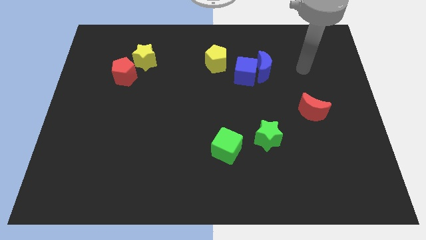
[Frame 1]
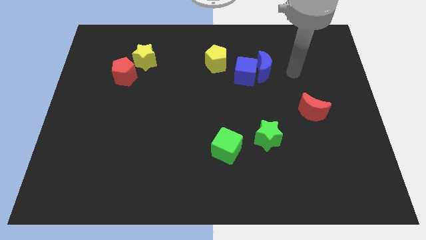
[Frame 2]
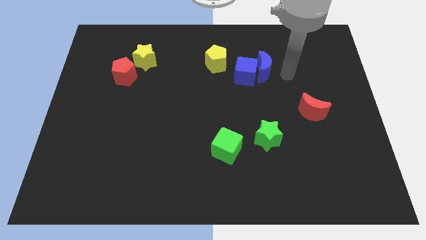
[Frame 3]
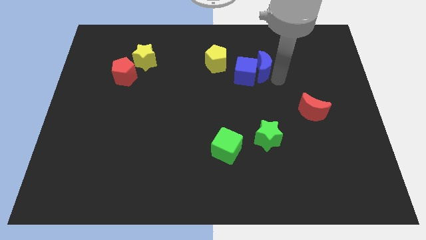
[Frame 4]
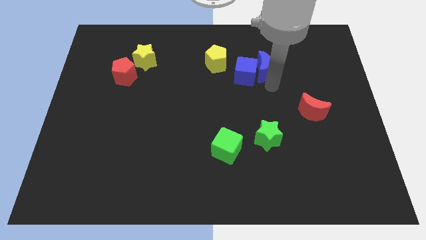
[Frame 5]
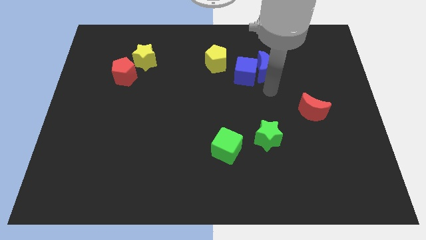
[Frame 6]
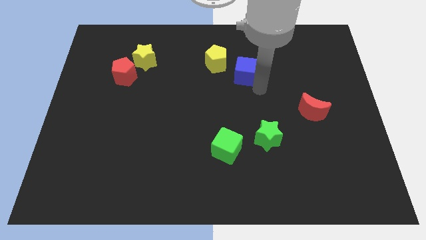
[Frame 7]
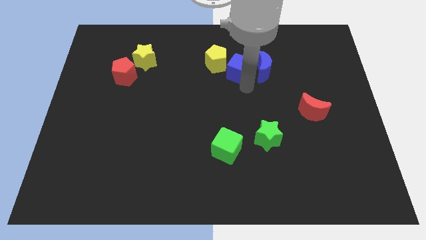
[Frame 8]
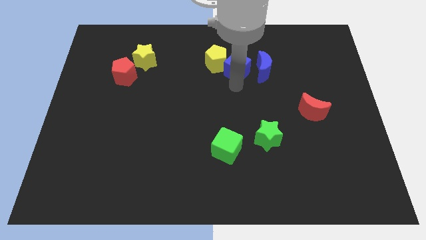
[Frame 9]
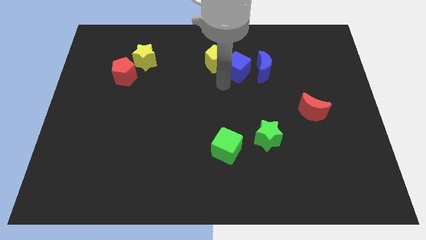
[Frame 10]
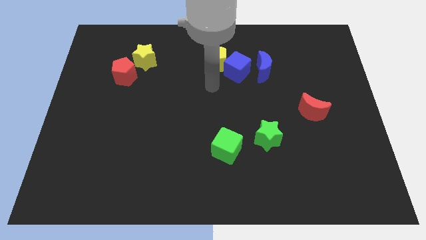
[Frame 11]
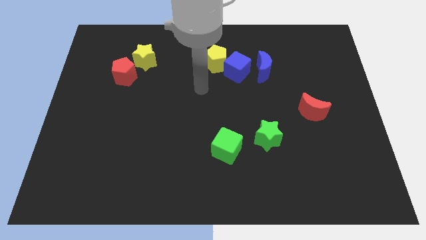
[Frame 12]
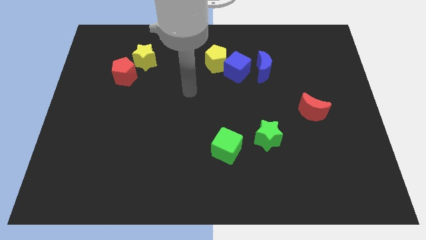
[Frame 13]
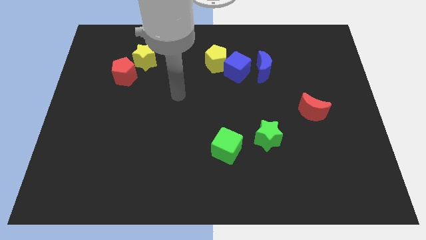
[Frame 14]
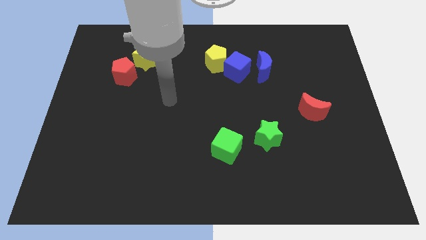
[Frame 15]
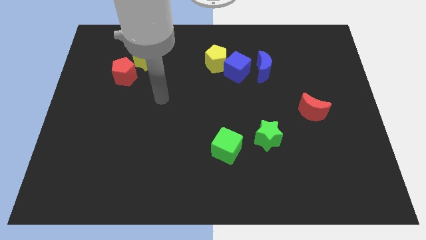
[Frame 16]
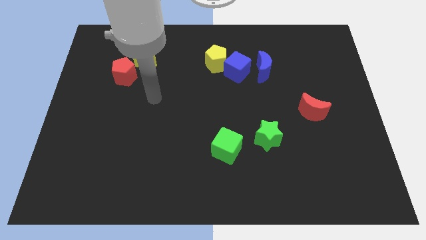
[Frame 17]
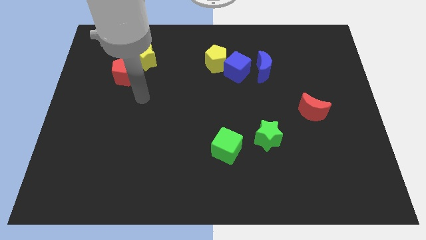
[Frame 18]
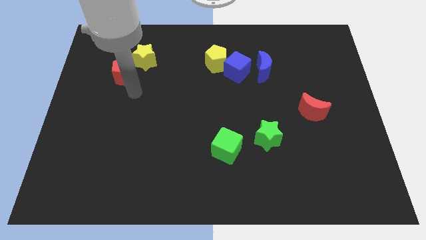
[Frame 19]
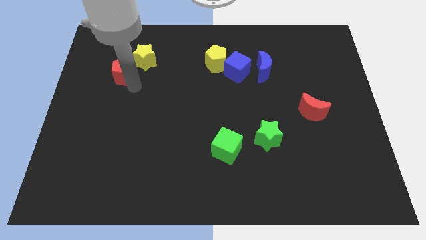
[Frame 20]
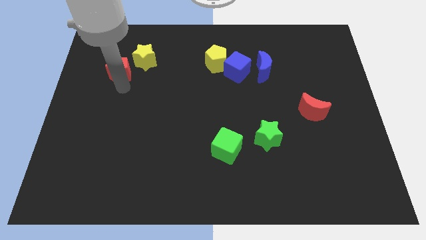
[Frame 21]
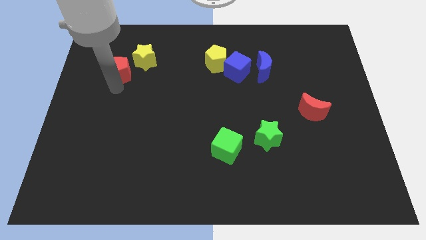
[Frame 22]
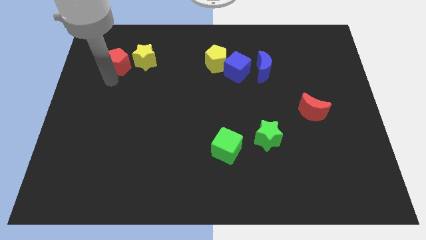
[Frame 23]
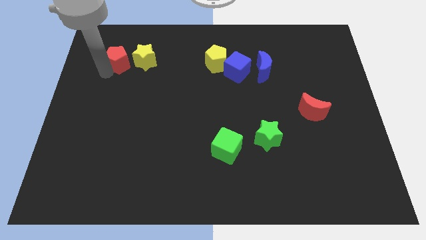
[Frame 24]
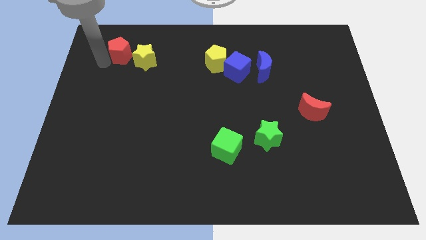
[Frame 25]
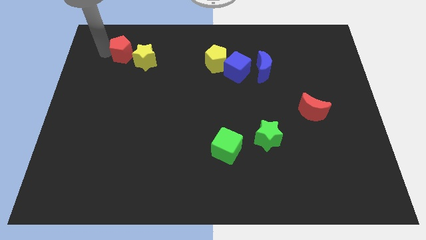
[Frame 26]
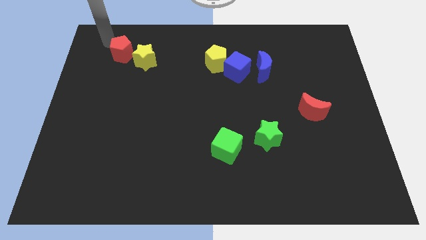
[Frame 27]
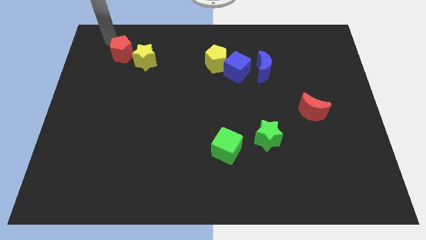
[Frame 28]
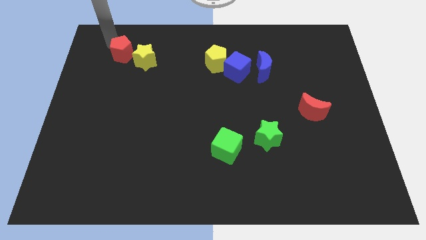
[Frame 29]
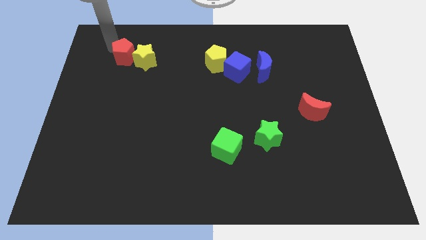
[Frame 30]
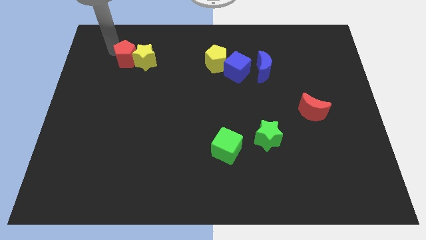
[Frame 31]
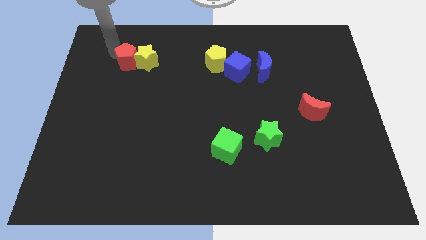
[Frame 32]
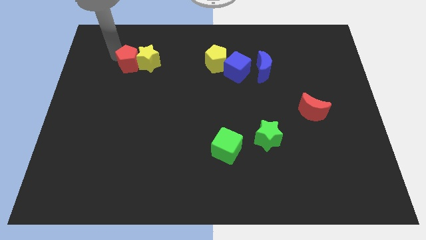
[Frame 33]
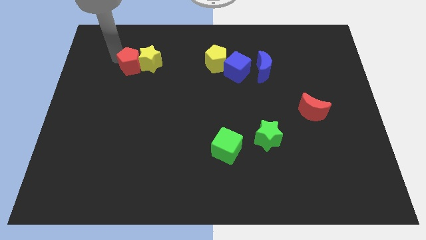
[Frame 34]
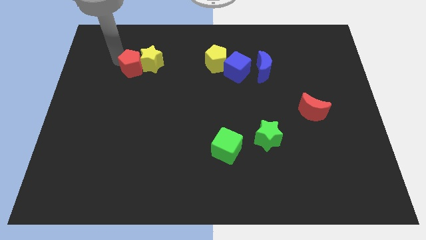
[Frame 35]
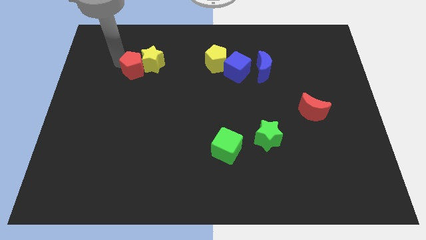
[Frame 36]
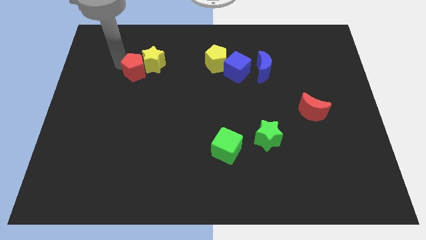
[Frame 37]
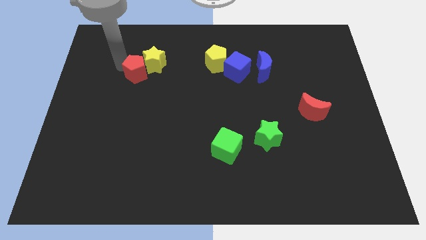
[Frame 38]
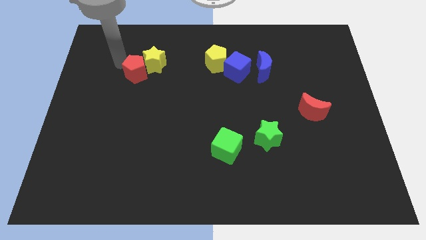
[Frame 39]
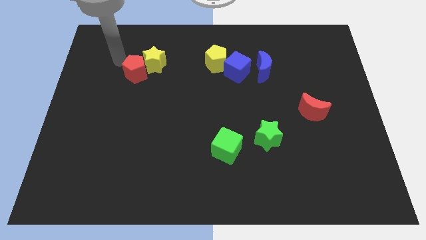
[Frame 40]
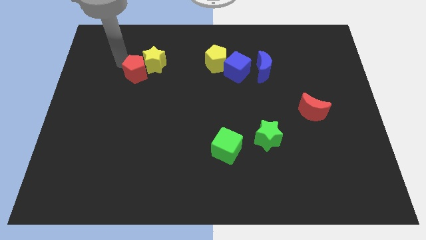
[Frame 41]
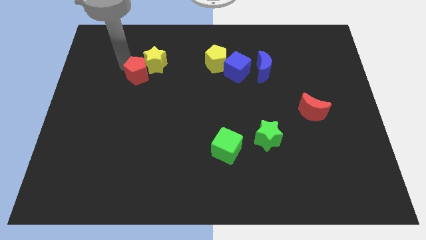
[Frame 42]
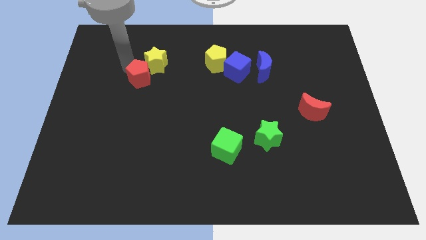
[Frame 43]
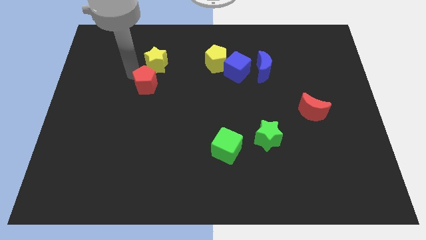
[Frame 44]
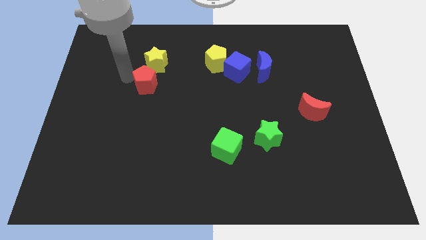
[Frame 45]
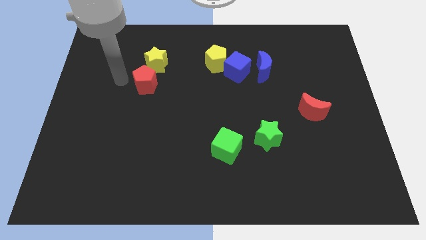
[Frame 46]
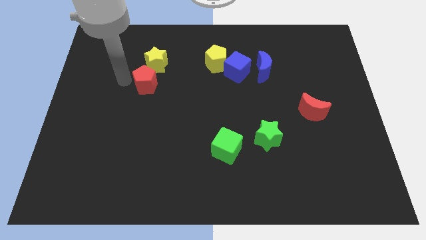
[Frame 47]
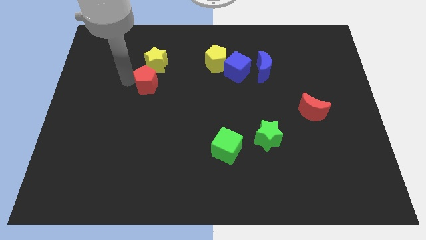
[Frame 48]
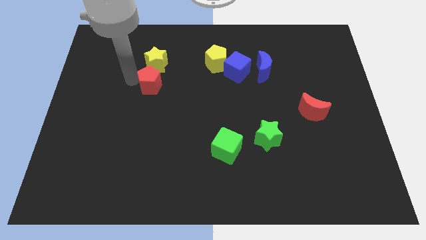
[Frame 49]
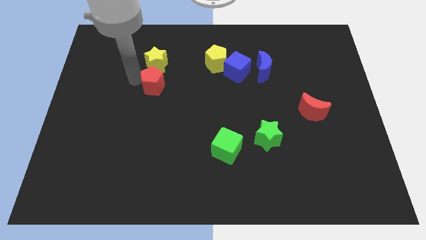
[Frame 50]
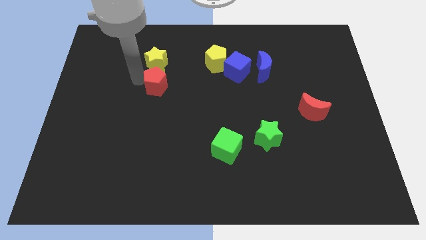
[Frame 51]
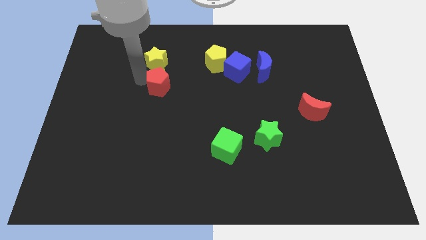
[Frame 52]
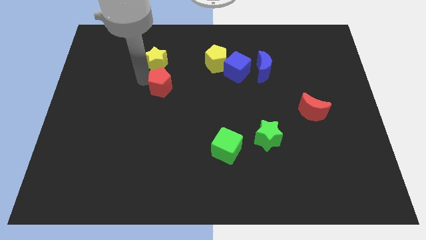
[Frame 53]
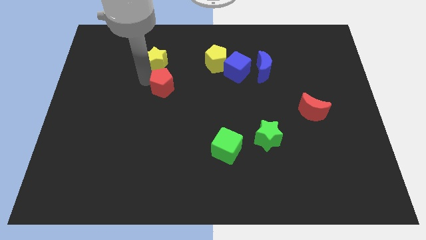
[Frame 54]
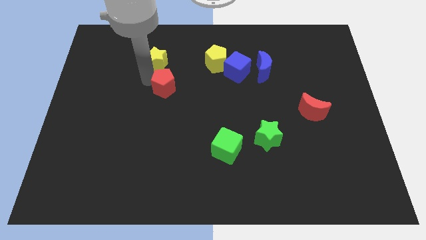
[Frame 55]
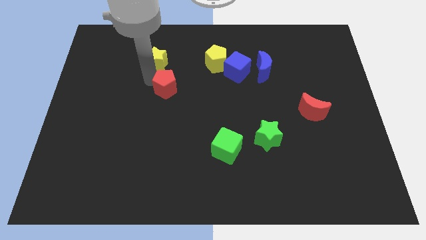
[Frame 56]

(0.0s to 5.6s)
slide the red pentagon to the center

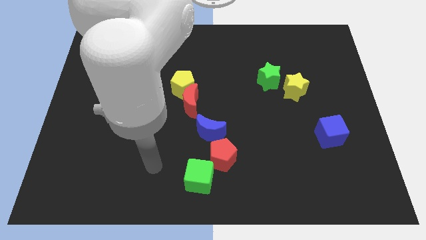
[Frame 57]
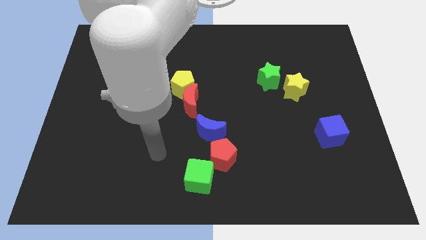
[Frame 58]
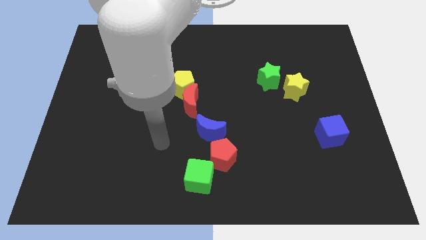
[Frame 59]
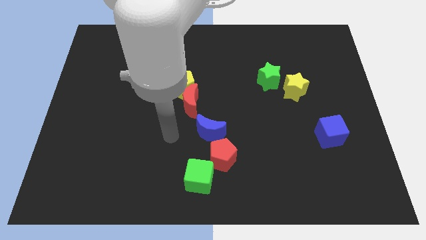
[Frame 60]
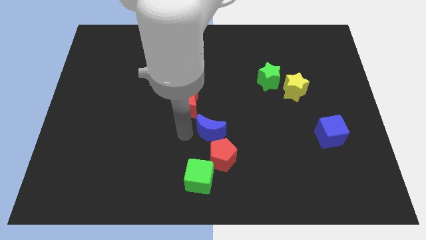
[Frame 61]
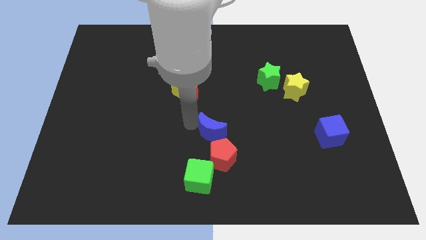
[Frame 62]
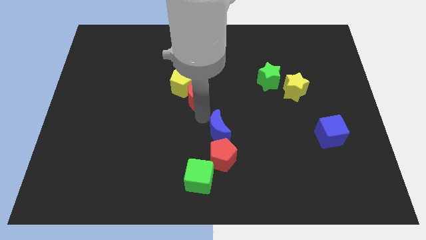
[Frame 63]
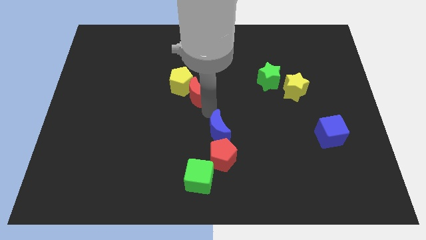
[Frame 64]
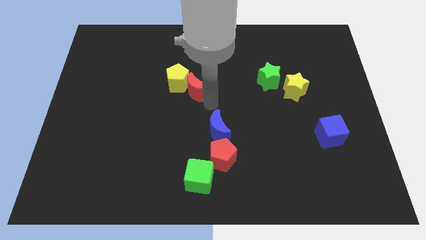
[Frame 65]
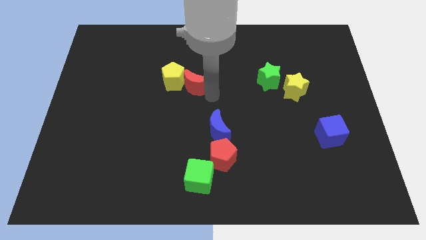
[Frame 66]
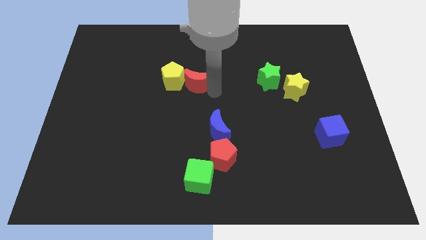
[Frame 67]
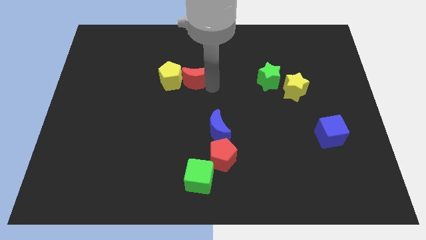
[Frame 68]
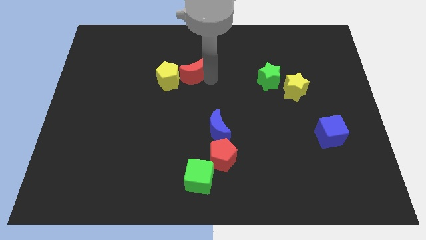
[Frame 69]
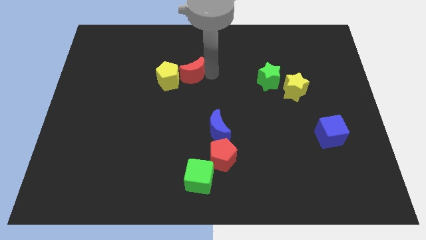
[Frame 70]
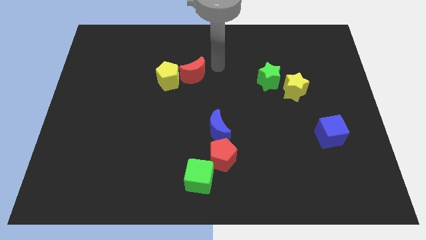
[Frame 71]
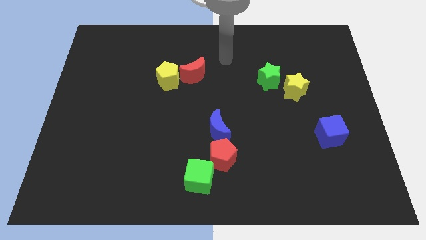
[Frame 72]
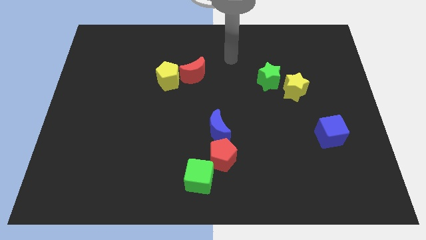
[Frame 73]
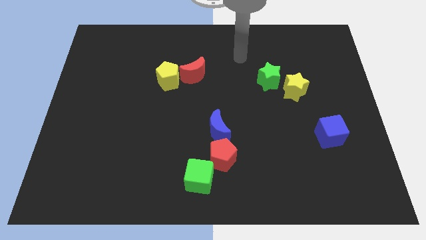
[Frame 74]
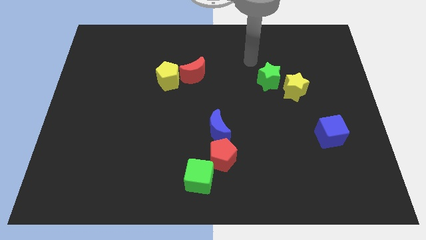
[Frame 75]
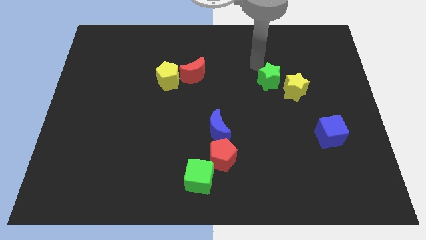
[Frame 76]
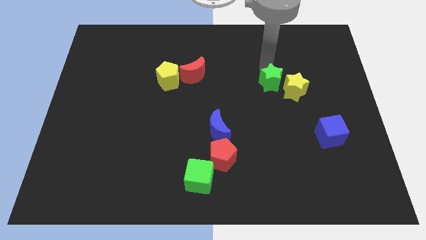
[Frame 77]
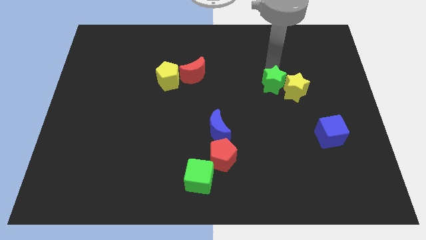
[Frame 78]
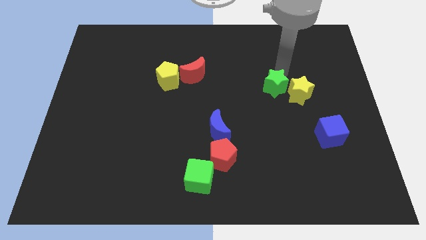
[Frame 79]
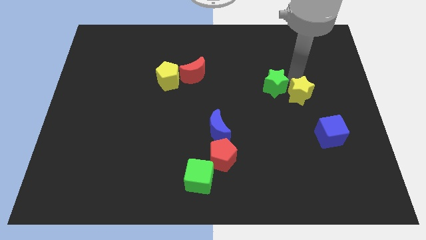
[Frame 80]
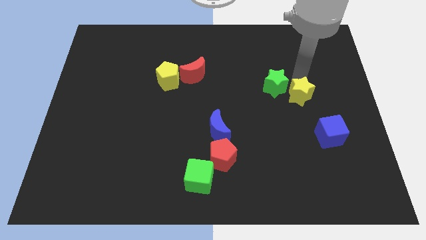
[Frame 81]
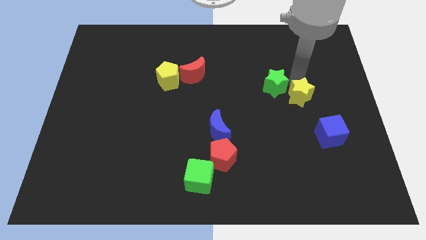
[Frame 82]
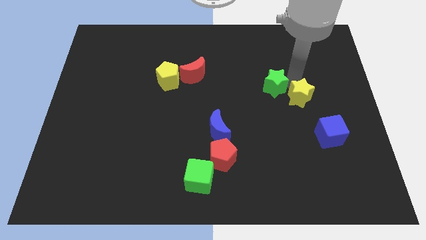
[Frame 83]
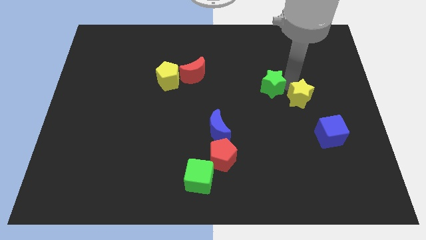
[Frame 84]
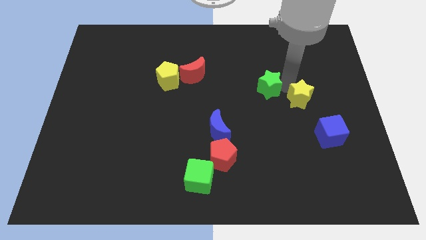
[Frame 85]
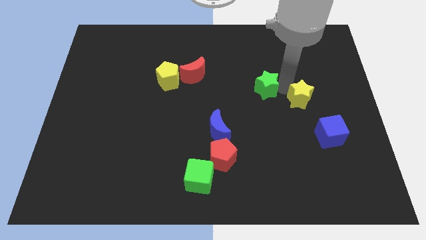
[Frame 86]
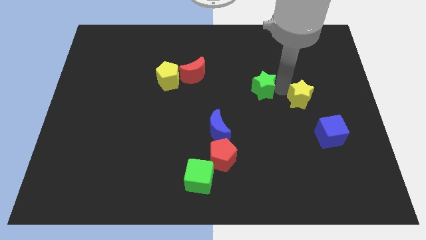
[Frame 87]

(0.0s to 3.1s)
push the green star to the center
